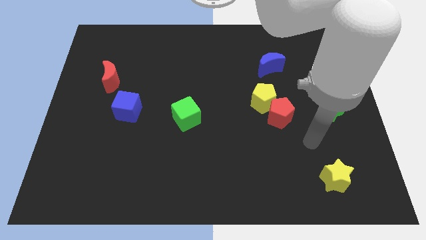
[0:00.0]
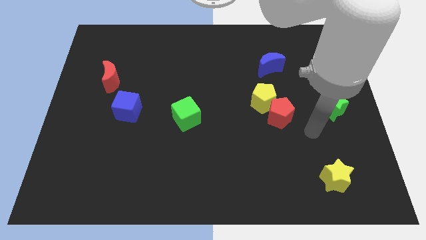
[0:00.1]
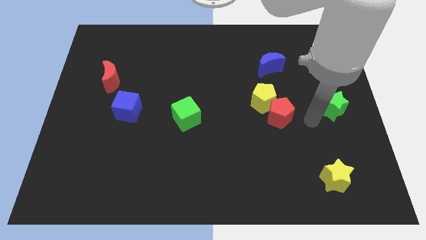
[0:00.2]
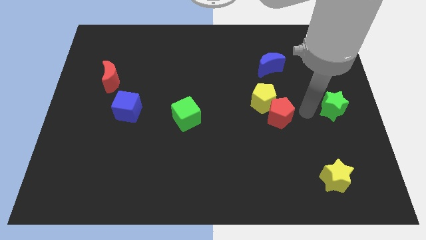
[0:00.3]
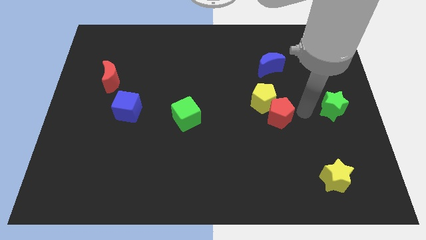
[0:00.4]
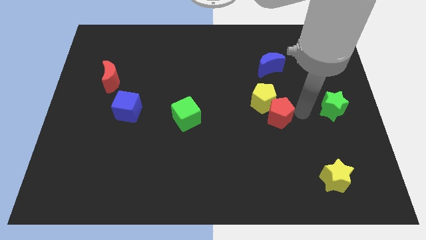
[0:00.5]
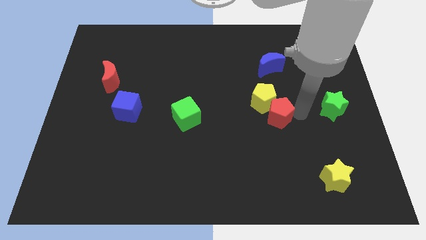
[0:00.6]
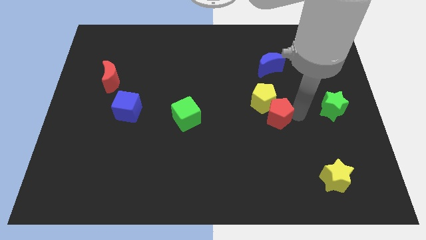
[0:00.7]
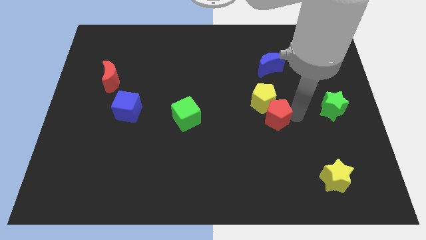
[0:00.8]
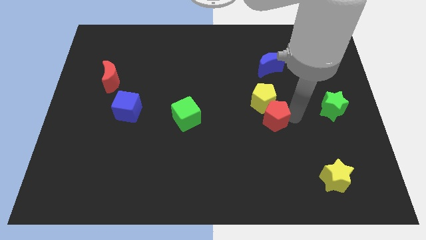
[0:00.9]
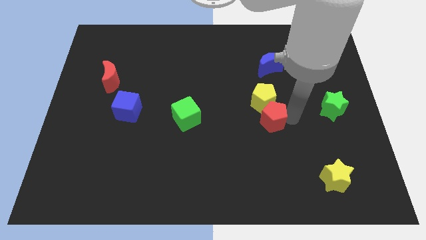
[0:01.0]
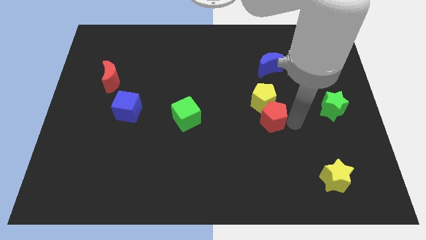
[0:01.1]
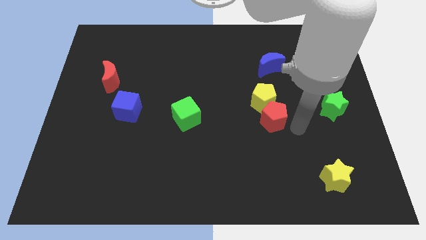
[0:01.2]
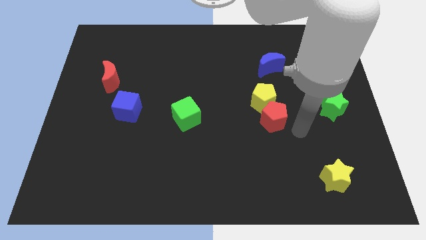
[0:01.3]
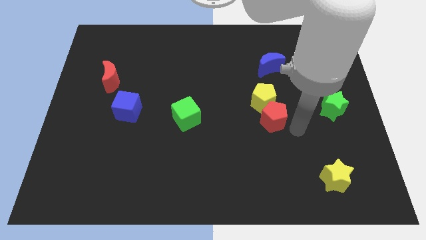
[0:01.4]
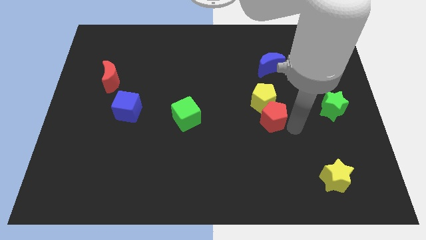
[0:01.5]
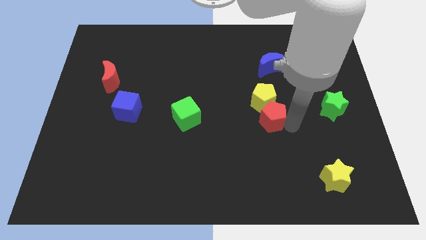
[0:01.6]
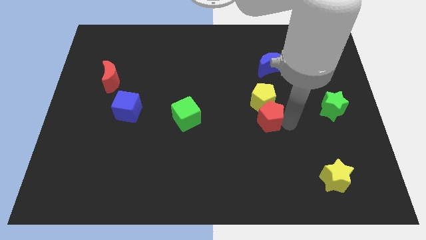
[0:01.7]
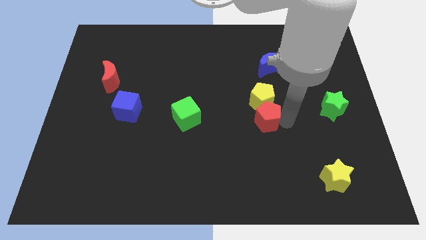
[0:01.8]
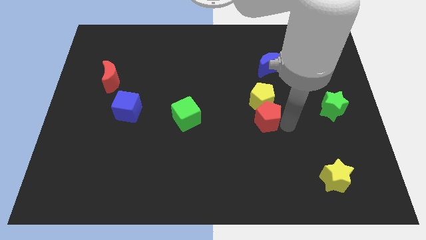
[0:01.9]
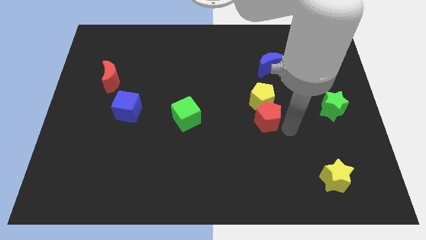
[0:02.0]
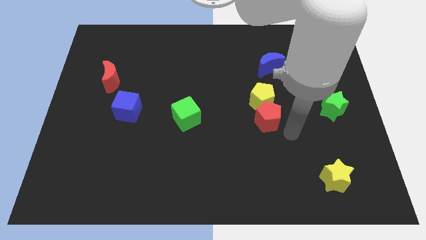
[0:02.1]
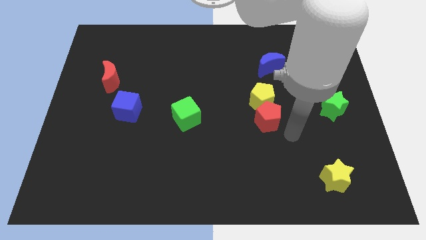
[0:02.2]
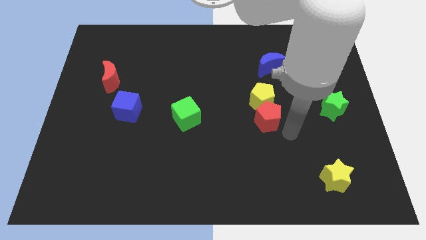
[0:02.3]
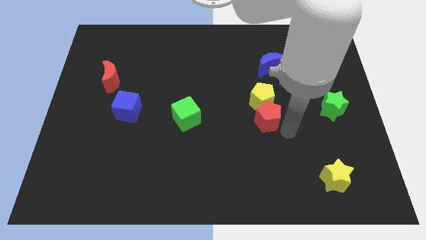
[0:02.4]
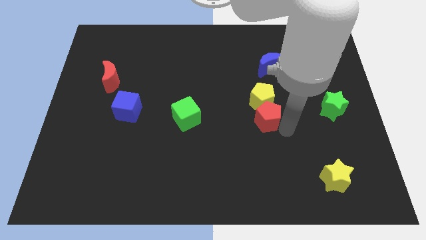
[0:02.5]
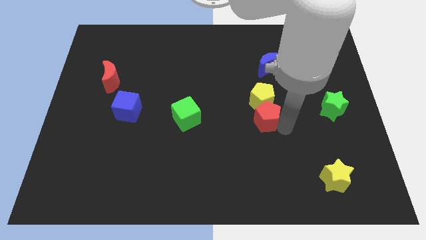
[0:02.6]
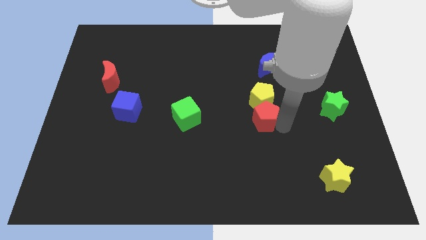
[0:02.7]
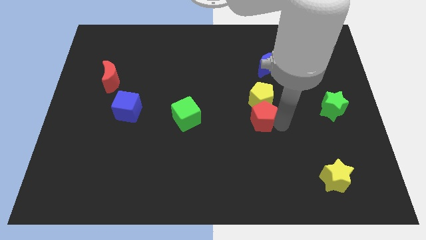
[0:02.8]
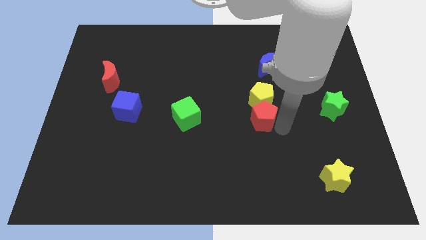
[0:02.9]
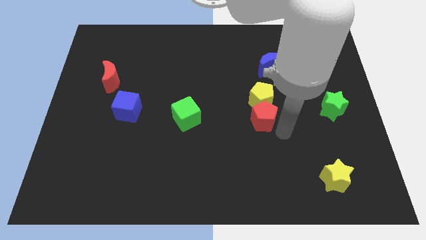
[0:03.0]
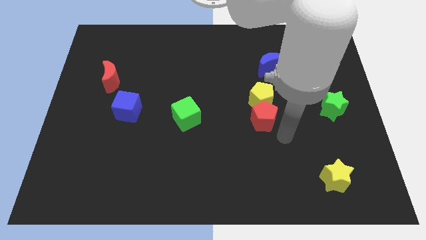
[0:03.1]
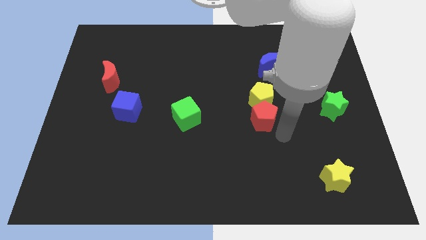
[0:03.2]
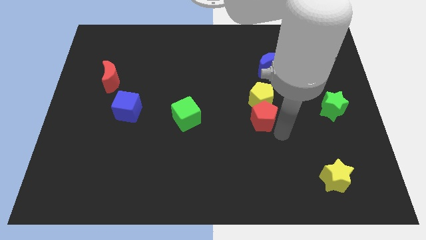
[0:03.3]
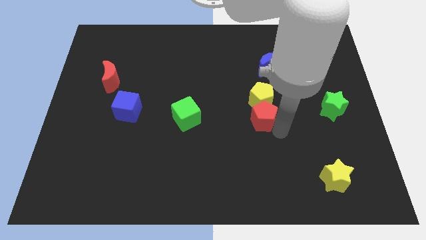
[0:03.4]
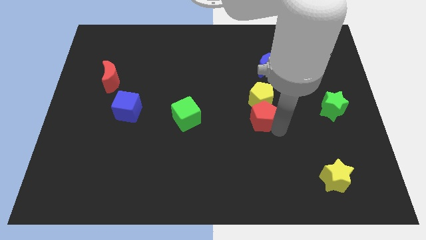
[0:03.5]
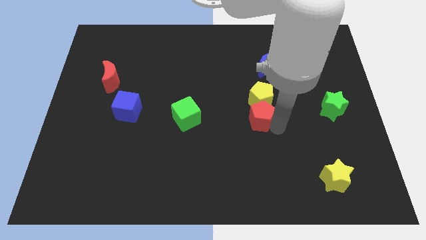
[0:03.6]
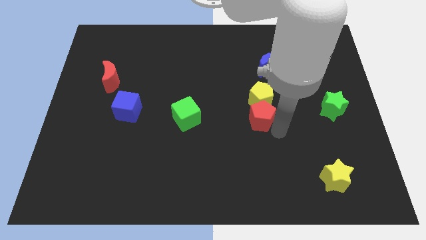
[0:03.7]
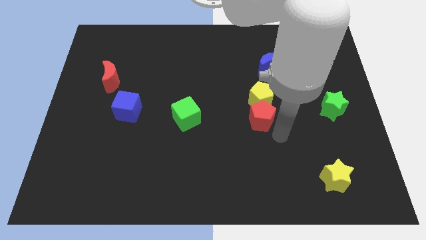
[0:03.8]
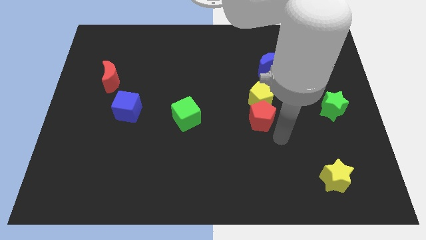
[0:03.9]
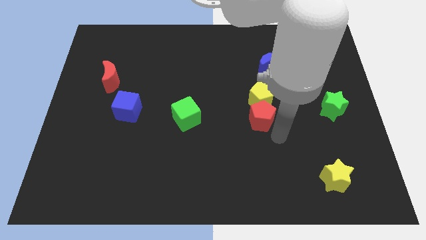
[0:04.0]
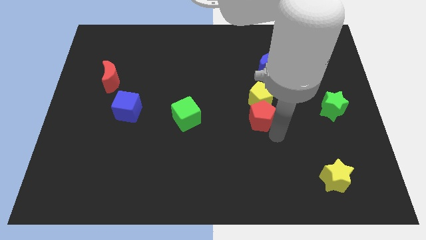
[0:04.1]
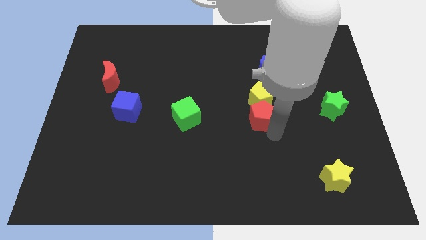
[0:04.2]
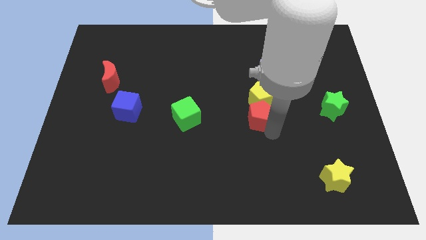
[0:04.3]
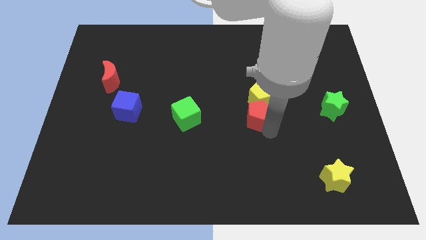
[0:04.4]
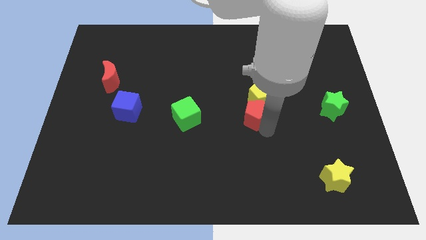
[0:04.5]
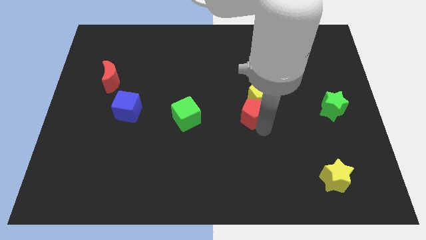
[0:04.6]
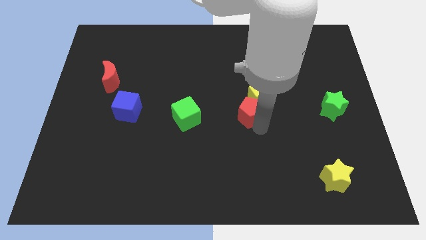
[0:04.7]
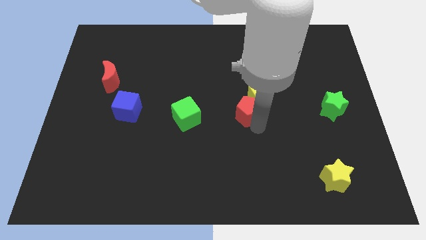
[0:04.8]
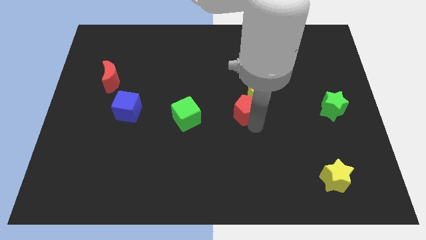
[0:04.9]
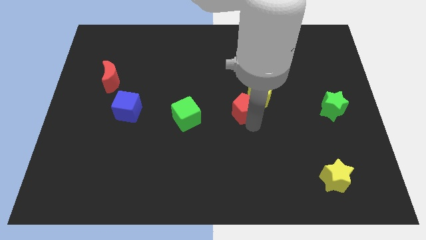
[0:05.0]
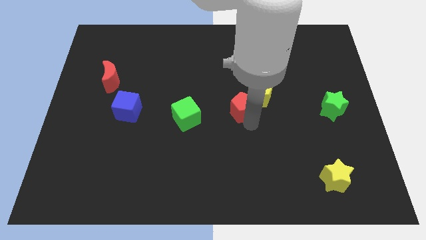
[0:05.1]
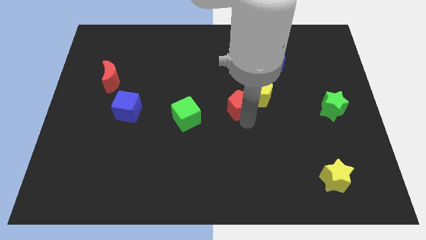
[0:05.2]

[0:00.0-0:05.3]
push the red pentagon up and left somewhat

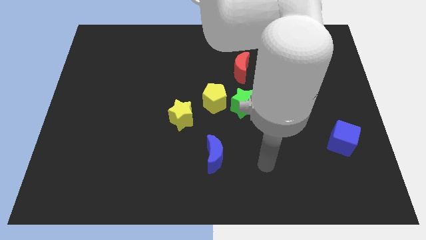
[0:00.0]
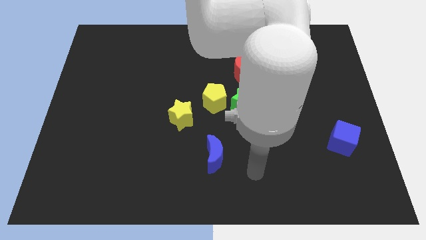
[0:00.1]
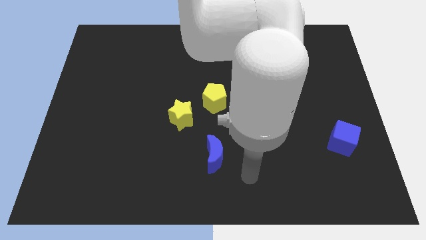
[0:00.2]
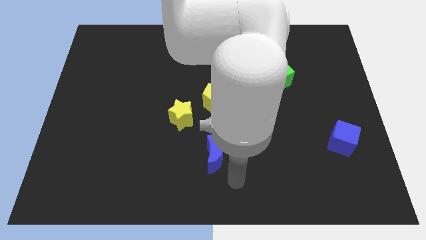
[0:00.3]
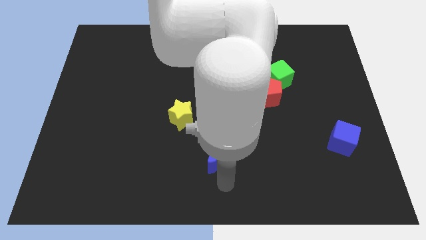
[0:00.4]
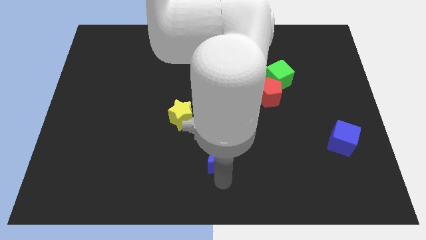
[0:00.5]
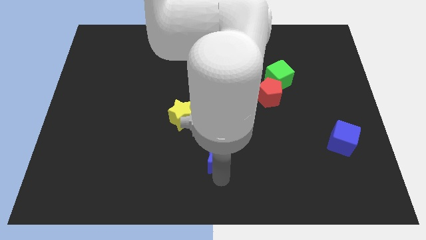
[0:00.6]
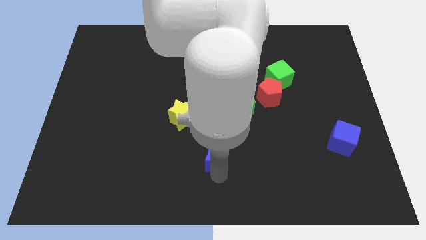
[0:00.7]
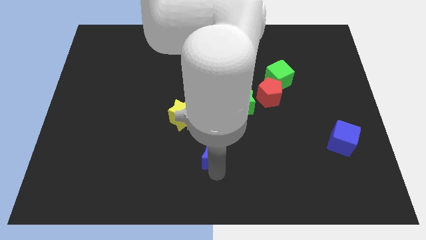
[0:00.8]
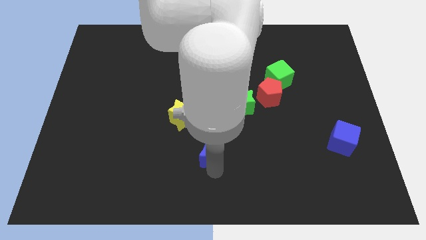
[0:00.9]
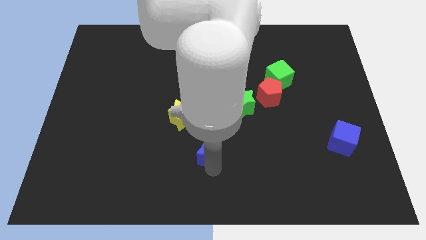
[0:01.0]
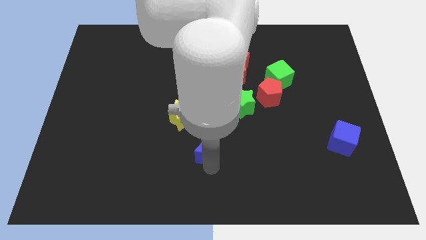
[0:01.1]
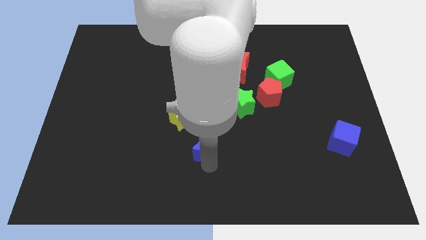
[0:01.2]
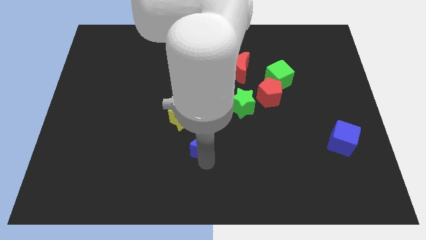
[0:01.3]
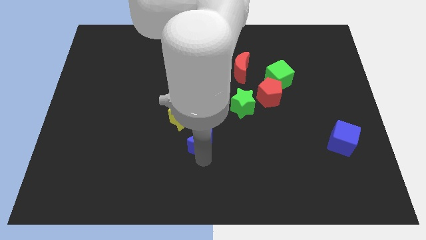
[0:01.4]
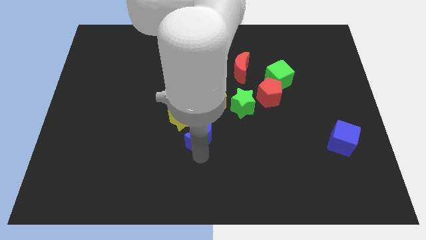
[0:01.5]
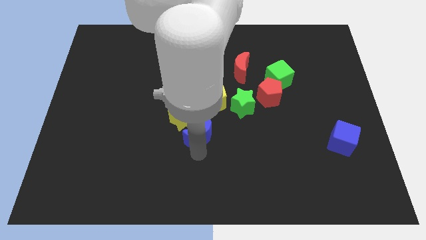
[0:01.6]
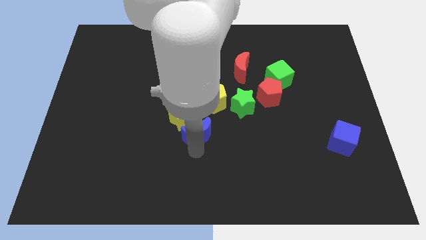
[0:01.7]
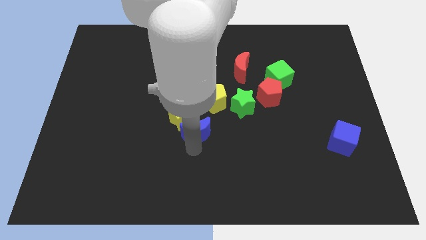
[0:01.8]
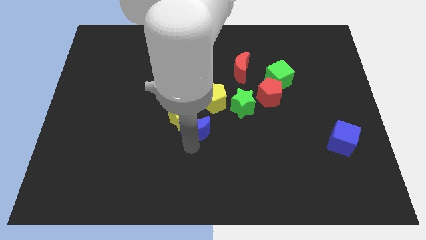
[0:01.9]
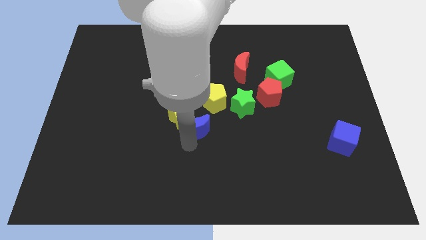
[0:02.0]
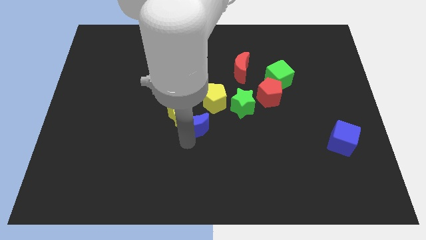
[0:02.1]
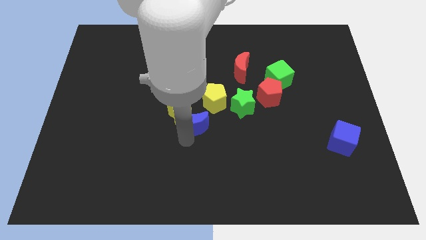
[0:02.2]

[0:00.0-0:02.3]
slightly push the blue moon upwards

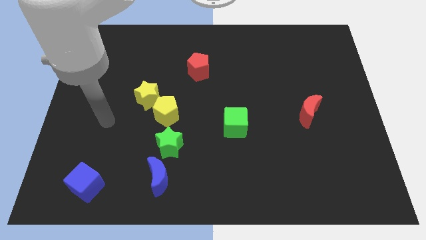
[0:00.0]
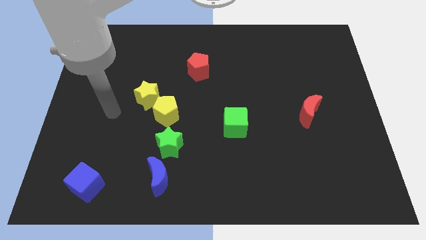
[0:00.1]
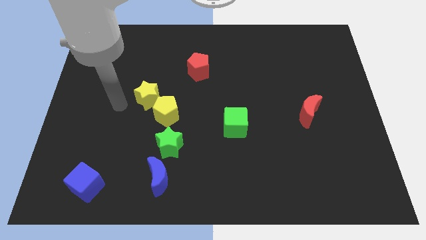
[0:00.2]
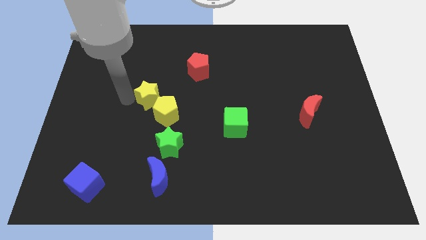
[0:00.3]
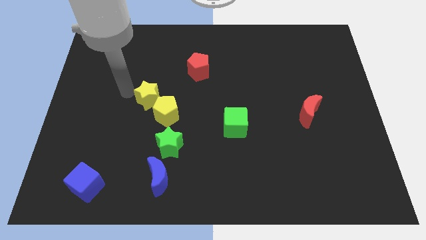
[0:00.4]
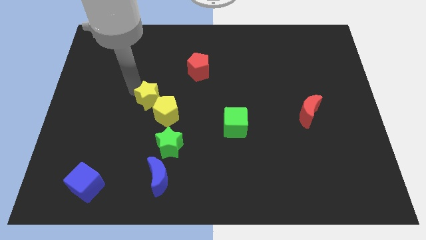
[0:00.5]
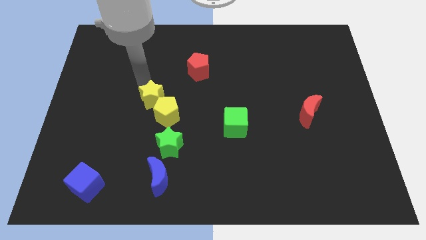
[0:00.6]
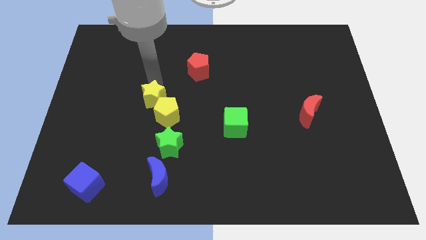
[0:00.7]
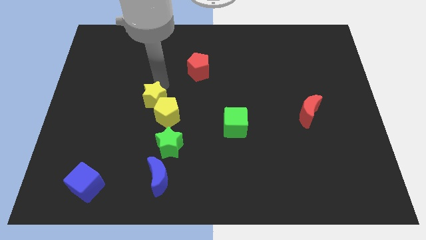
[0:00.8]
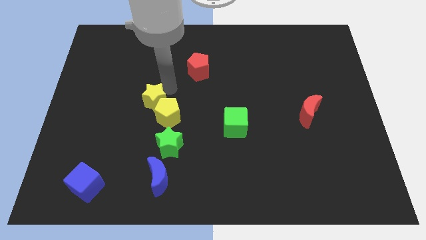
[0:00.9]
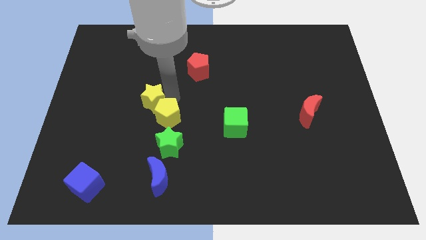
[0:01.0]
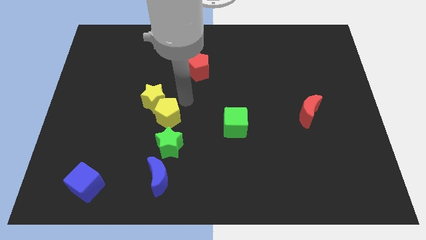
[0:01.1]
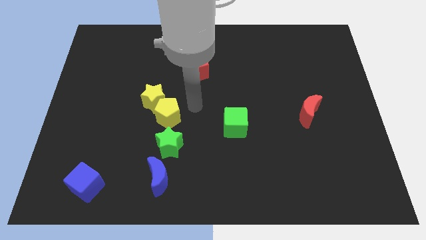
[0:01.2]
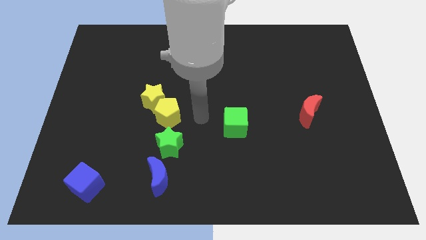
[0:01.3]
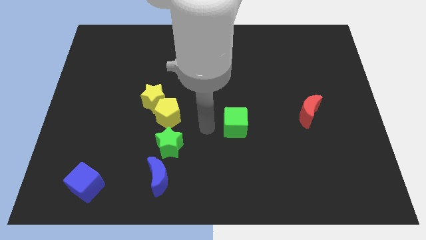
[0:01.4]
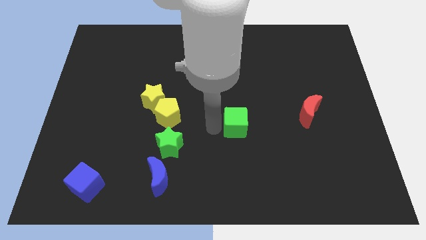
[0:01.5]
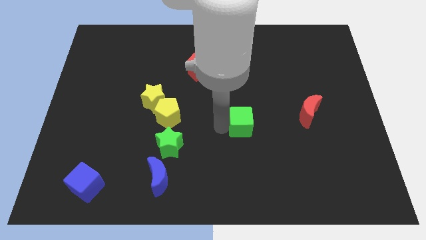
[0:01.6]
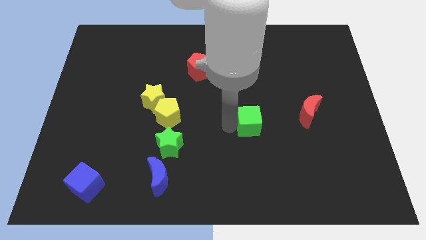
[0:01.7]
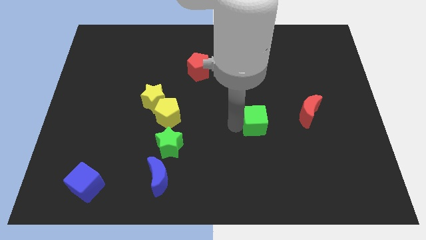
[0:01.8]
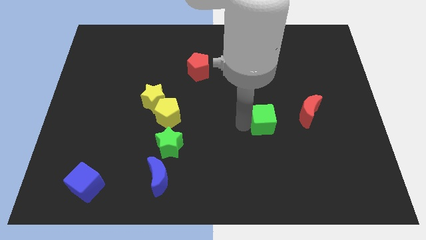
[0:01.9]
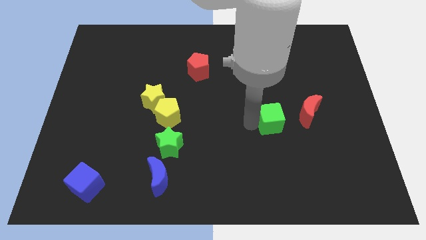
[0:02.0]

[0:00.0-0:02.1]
move the green cube somewhat to the right
